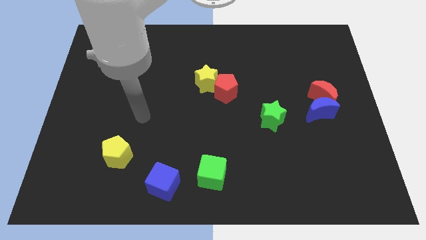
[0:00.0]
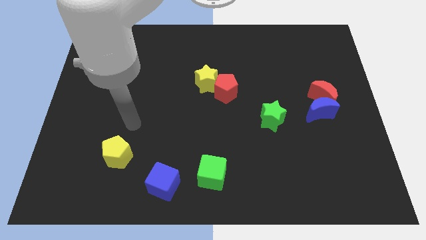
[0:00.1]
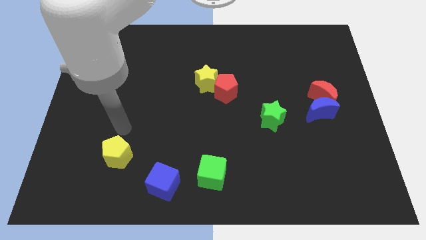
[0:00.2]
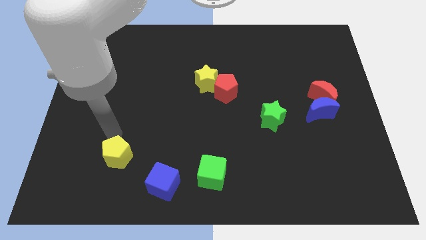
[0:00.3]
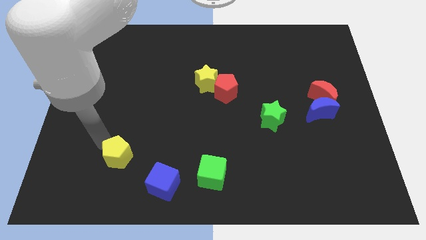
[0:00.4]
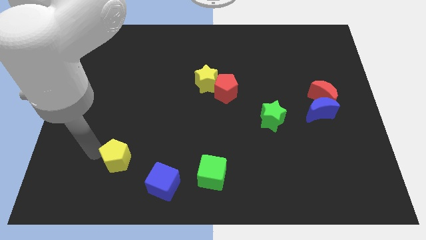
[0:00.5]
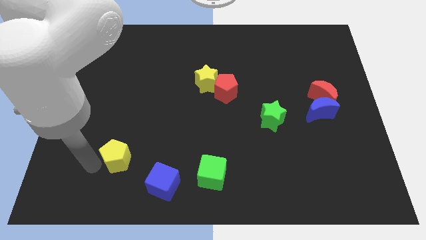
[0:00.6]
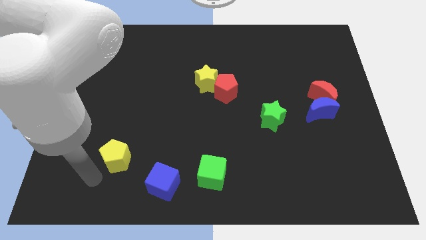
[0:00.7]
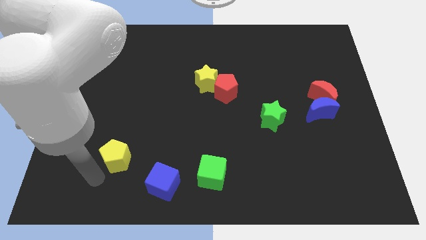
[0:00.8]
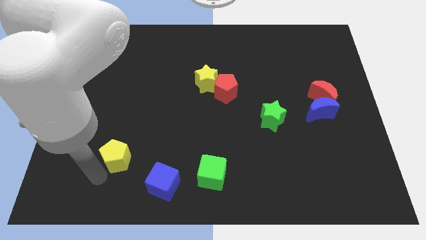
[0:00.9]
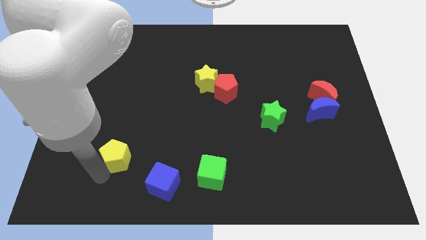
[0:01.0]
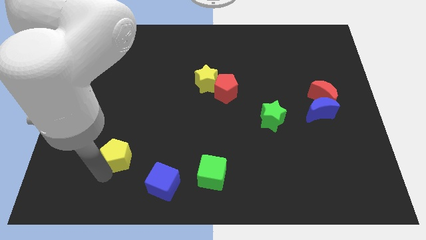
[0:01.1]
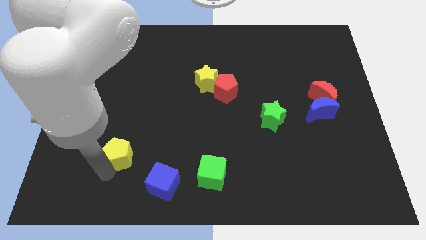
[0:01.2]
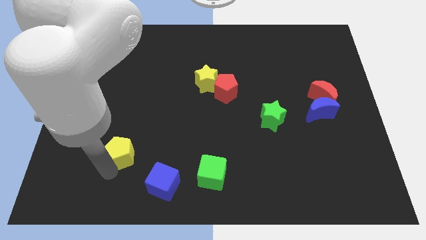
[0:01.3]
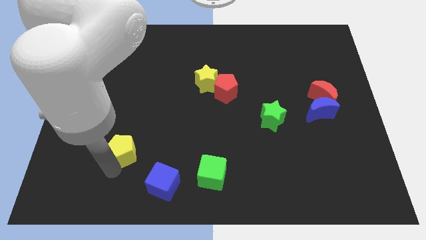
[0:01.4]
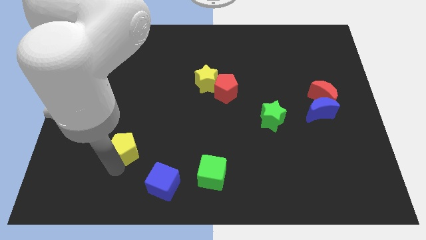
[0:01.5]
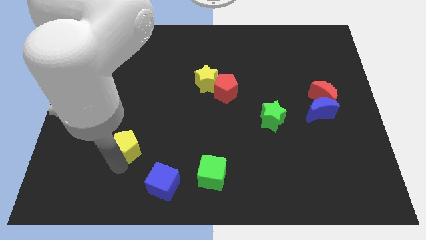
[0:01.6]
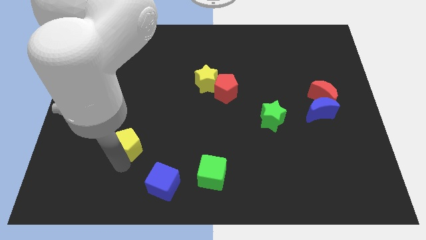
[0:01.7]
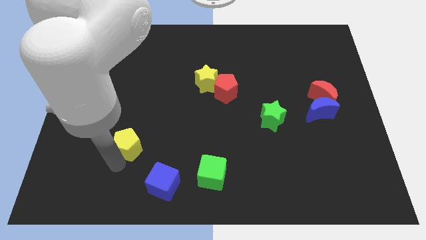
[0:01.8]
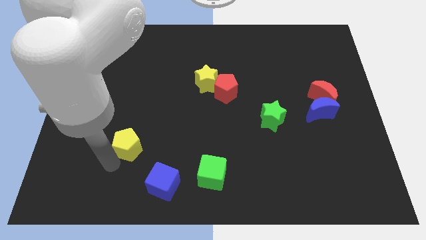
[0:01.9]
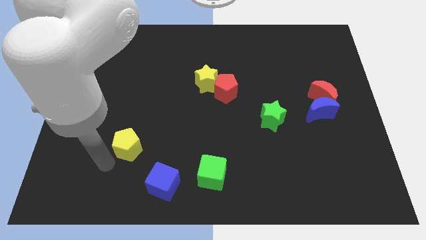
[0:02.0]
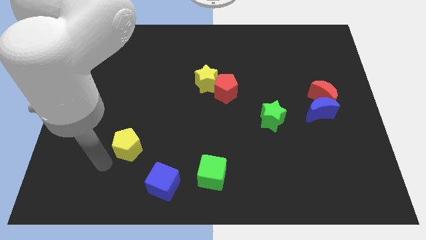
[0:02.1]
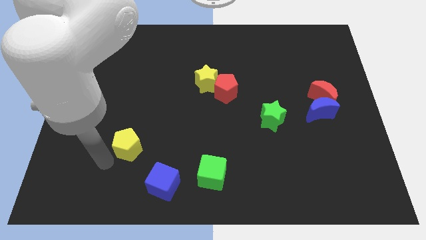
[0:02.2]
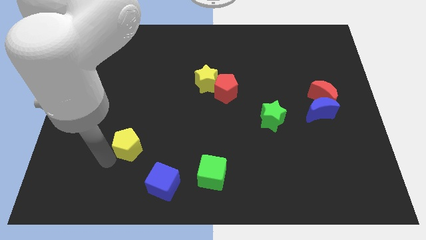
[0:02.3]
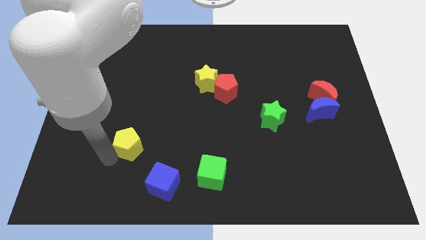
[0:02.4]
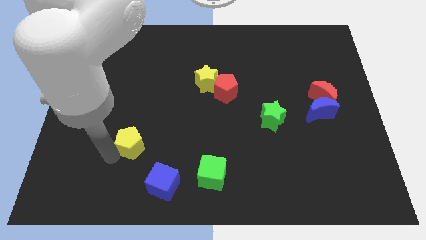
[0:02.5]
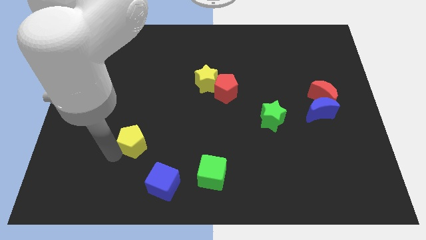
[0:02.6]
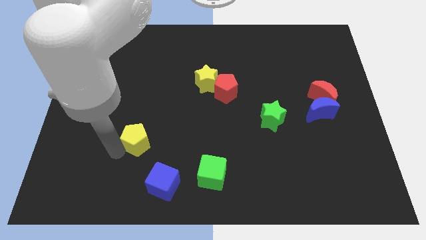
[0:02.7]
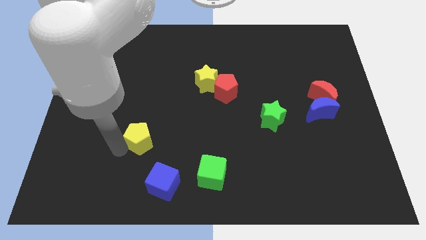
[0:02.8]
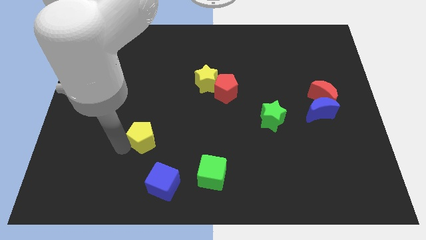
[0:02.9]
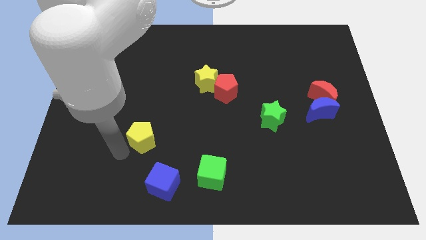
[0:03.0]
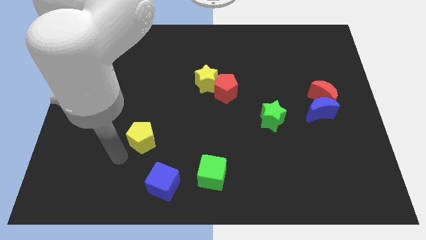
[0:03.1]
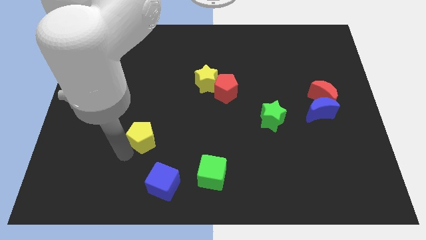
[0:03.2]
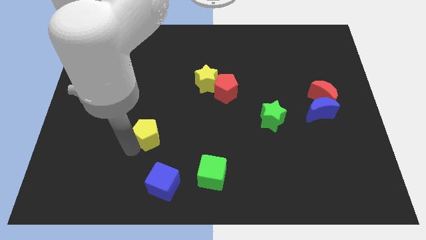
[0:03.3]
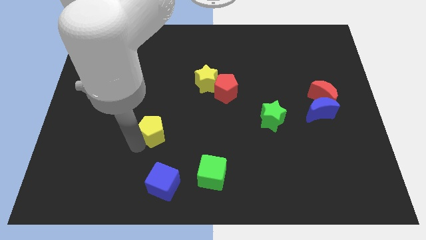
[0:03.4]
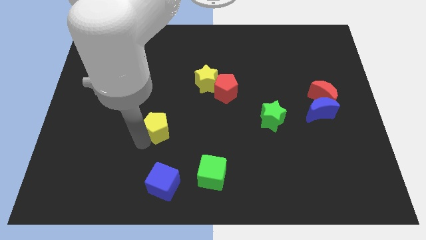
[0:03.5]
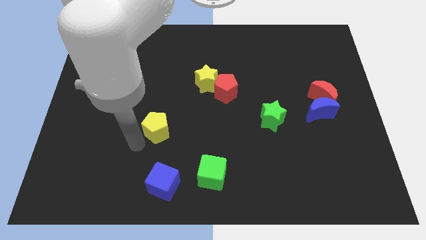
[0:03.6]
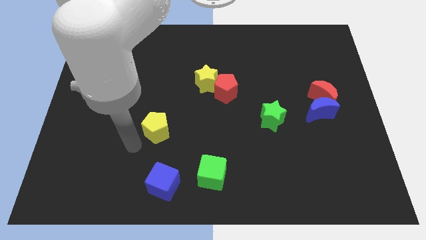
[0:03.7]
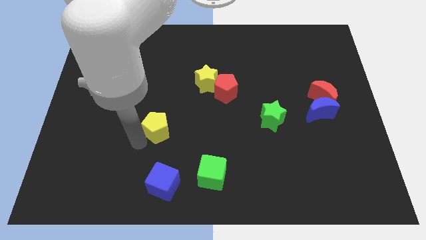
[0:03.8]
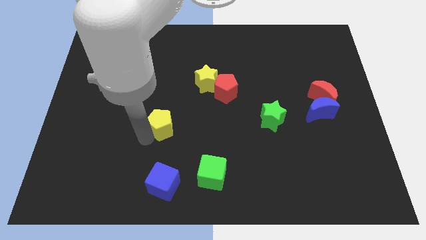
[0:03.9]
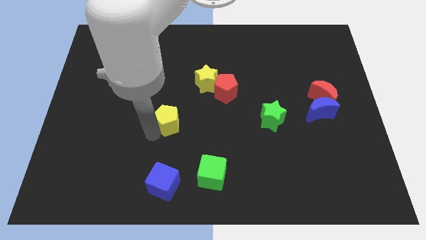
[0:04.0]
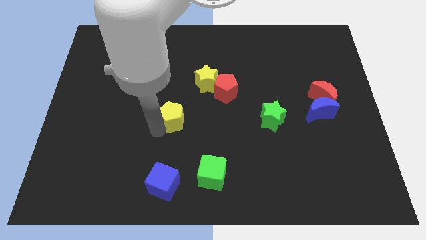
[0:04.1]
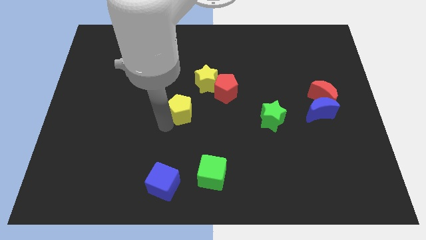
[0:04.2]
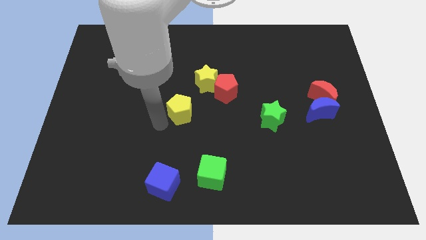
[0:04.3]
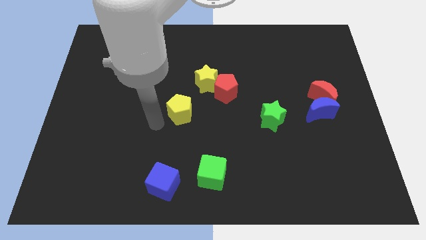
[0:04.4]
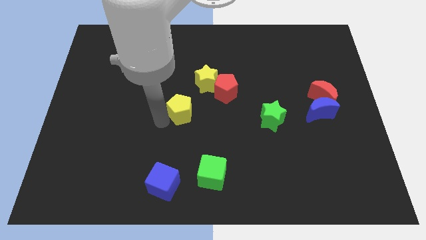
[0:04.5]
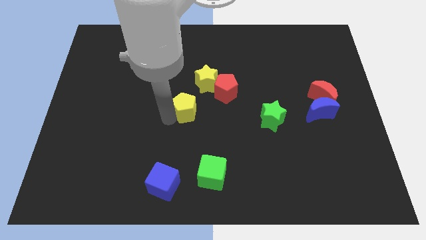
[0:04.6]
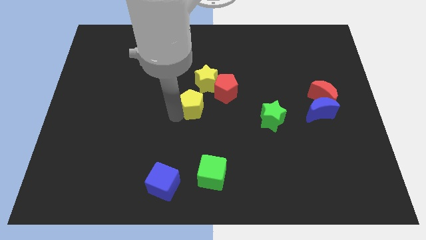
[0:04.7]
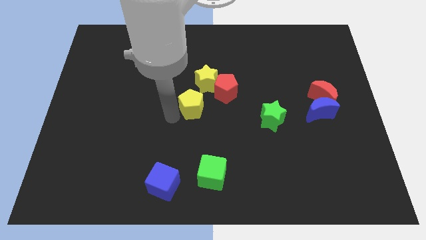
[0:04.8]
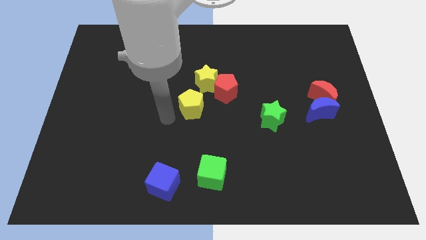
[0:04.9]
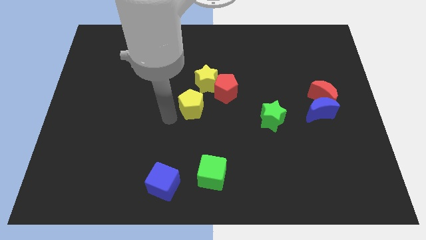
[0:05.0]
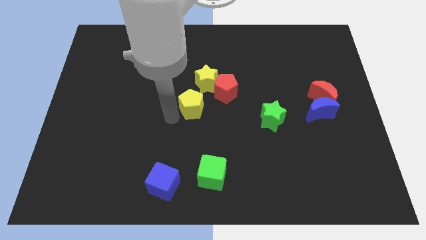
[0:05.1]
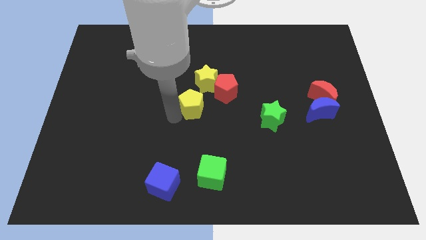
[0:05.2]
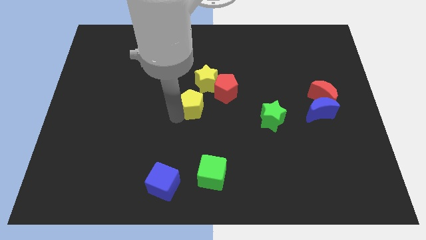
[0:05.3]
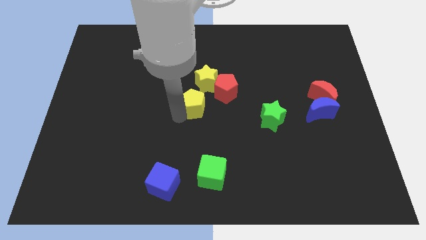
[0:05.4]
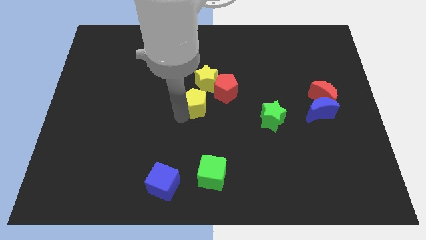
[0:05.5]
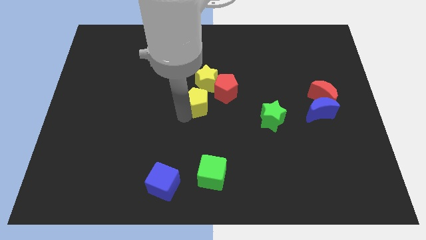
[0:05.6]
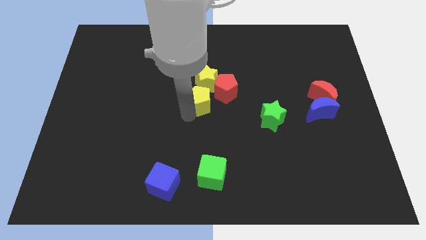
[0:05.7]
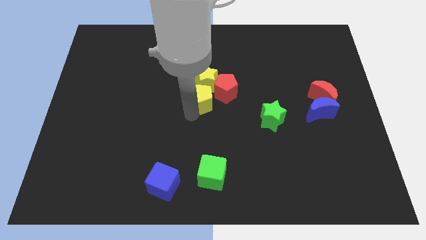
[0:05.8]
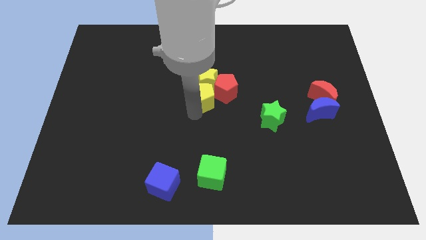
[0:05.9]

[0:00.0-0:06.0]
move the yellow pentagon next to the red pentagon

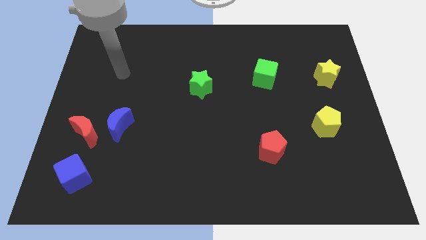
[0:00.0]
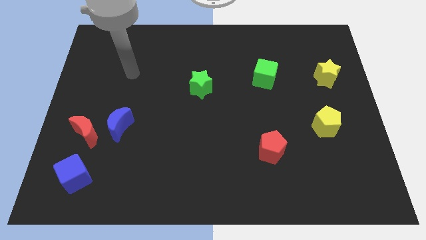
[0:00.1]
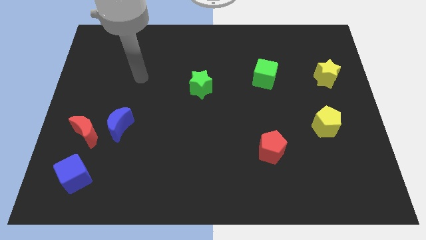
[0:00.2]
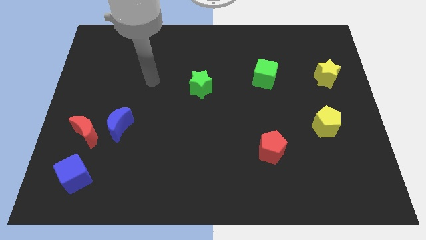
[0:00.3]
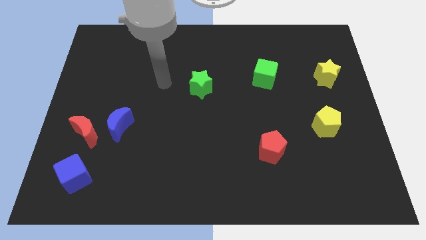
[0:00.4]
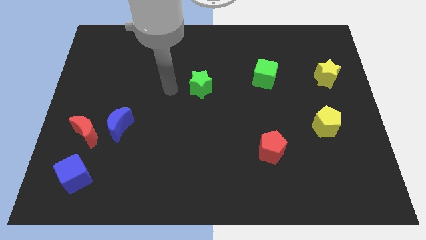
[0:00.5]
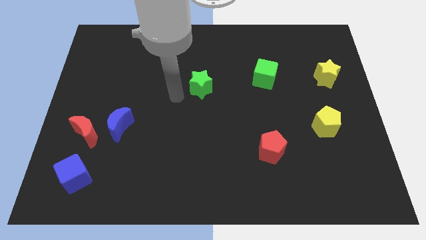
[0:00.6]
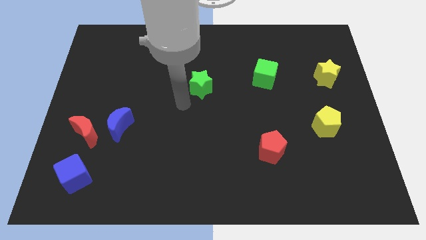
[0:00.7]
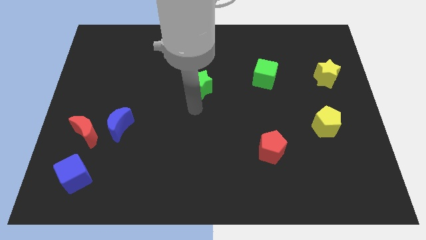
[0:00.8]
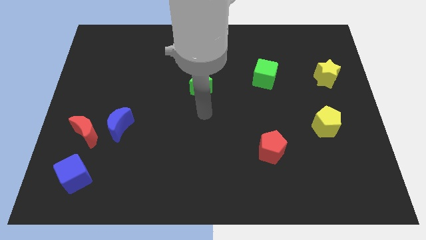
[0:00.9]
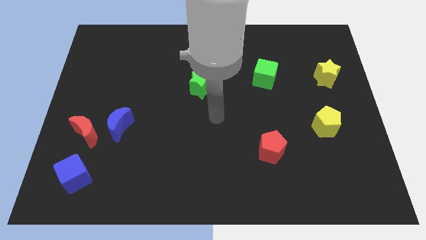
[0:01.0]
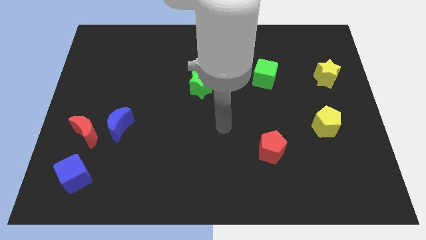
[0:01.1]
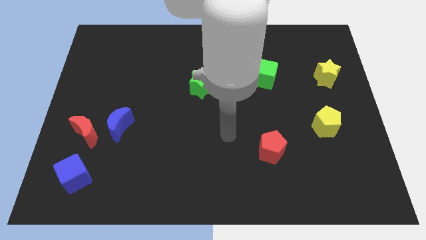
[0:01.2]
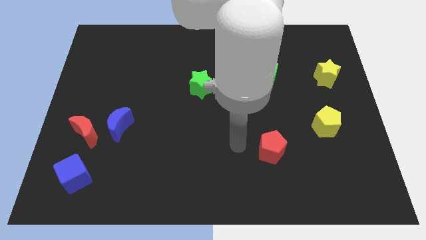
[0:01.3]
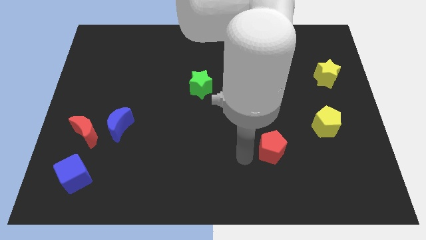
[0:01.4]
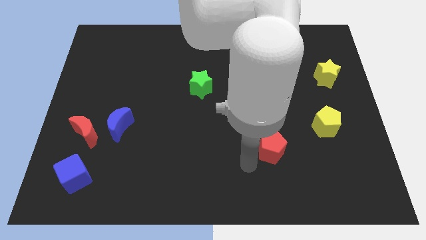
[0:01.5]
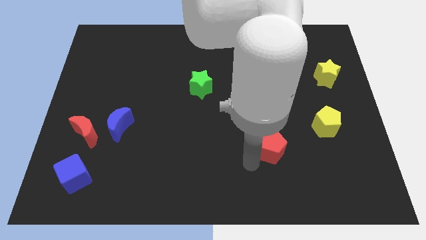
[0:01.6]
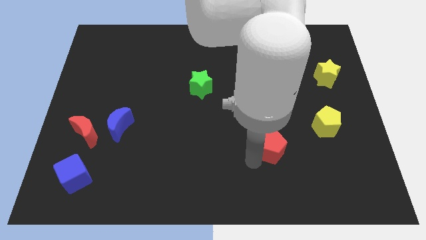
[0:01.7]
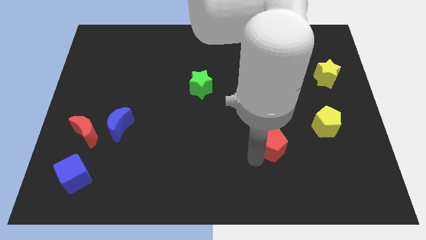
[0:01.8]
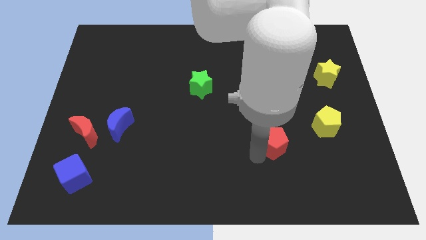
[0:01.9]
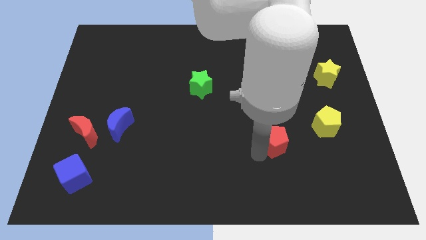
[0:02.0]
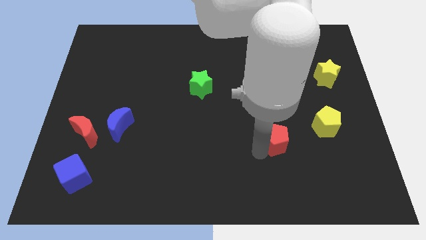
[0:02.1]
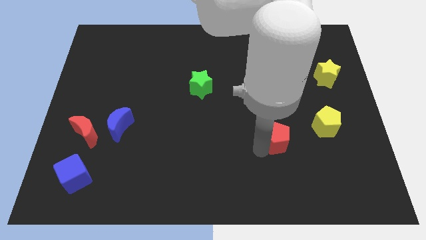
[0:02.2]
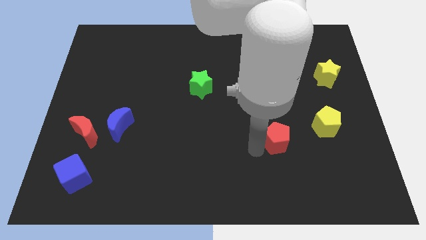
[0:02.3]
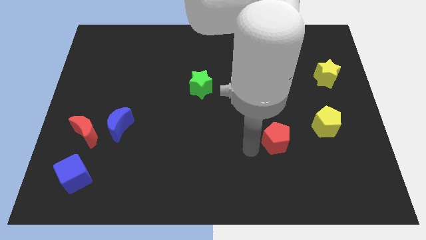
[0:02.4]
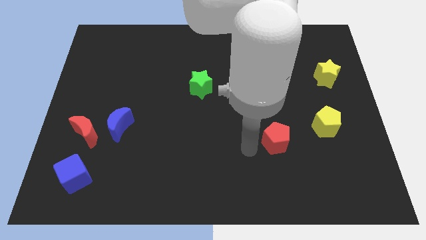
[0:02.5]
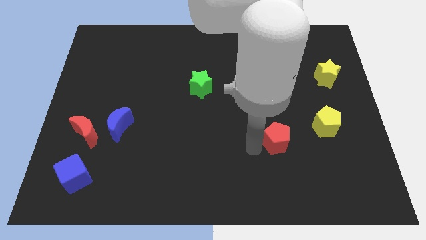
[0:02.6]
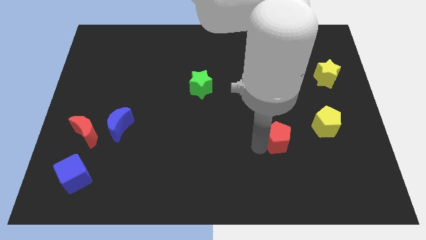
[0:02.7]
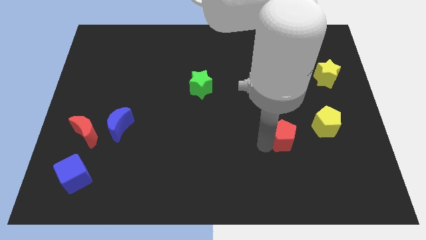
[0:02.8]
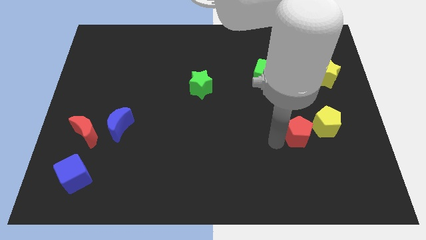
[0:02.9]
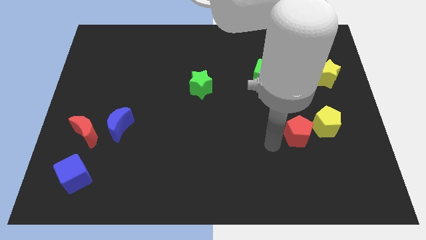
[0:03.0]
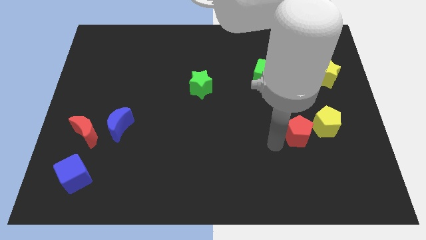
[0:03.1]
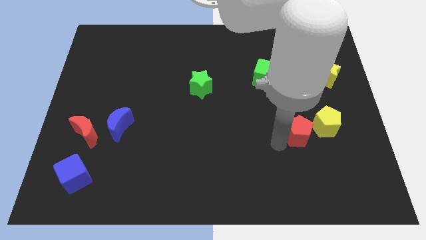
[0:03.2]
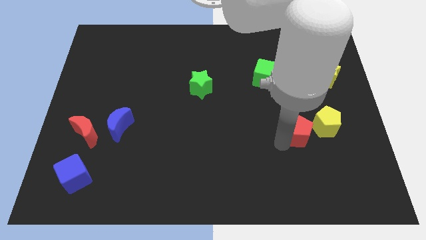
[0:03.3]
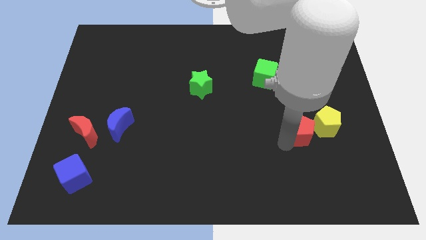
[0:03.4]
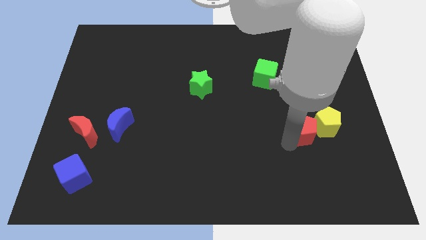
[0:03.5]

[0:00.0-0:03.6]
move the red pentagon next to the yellow pentagon
